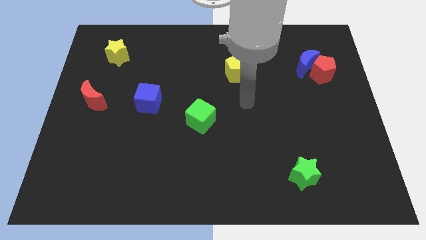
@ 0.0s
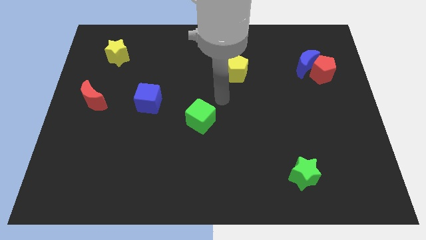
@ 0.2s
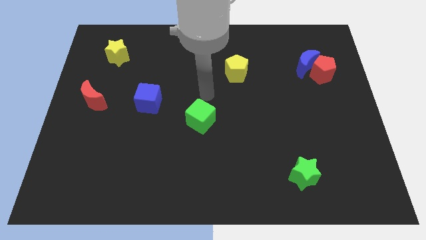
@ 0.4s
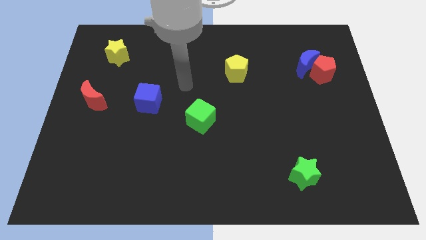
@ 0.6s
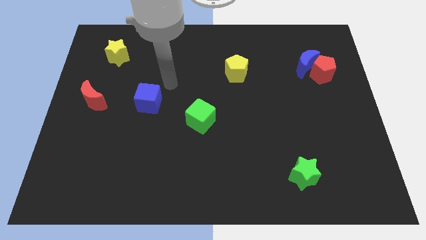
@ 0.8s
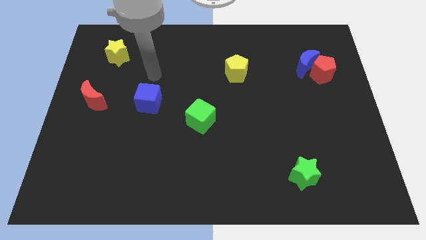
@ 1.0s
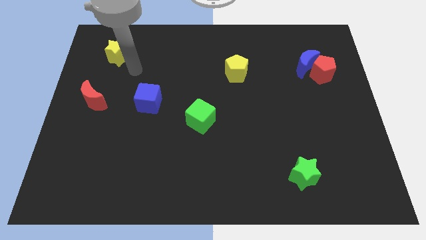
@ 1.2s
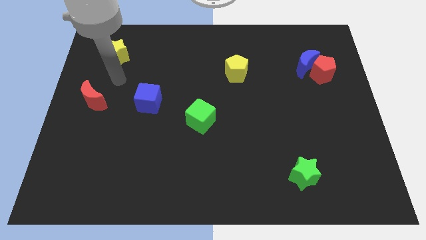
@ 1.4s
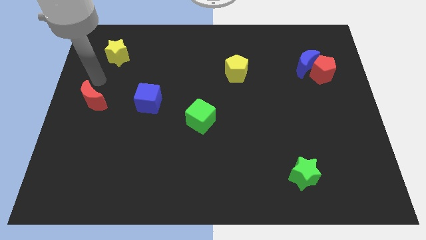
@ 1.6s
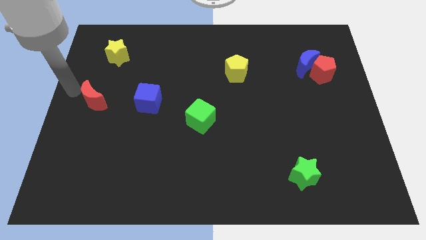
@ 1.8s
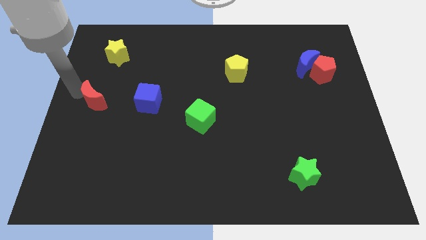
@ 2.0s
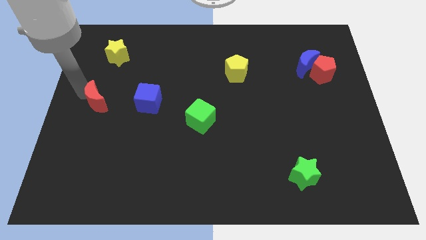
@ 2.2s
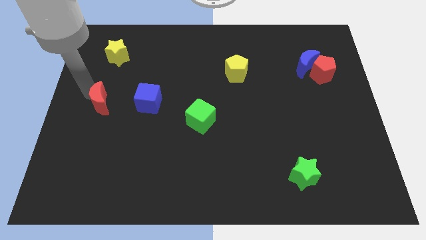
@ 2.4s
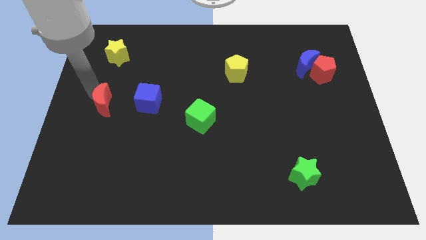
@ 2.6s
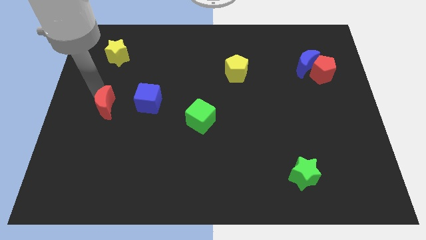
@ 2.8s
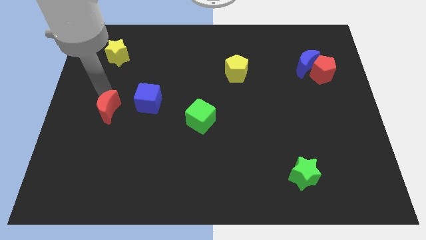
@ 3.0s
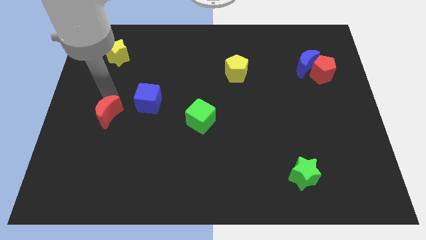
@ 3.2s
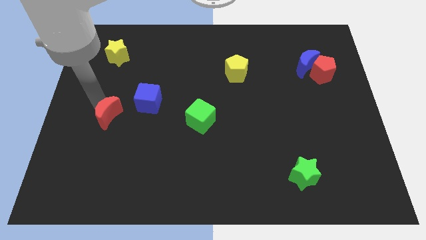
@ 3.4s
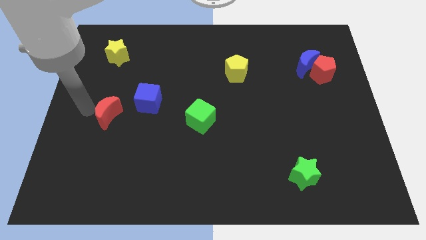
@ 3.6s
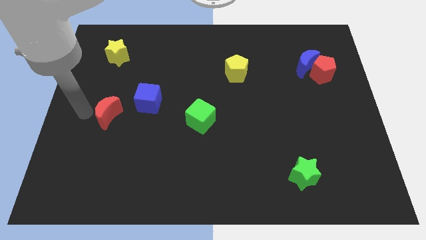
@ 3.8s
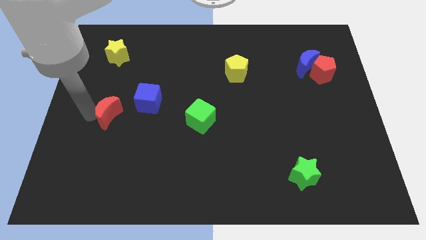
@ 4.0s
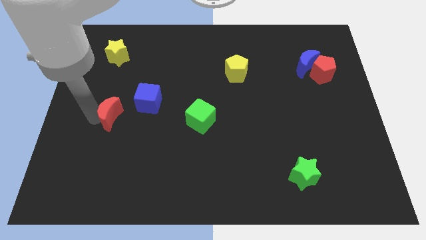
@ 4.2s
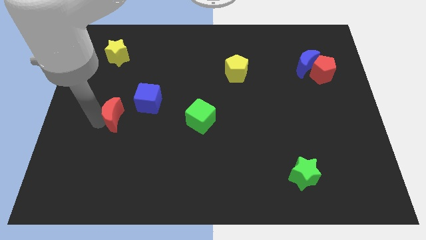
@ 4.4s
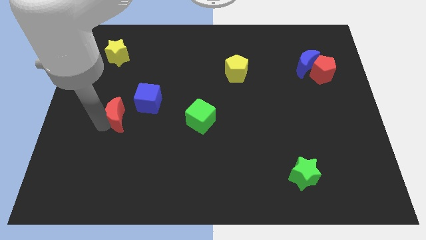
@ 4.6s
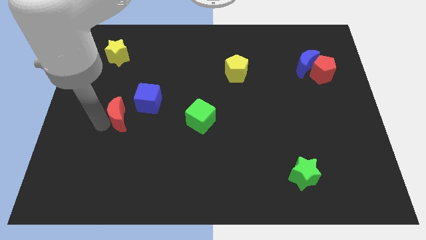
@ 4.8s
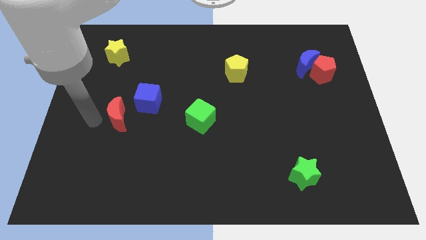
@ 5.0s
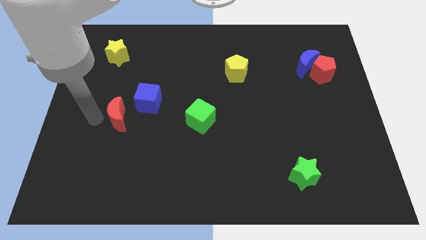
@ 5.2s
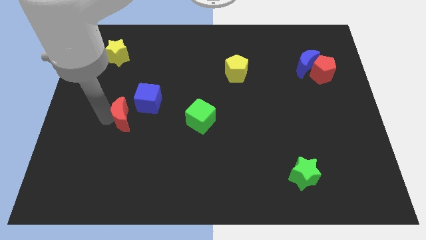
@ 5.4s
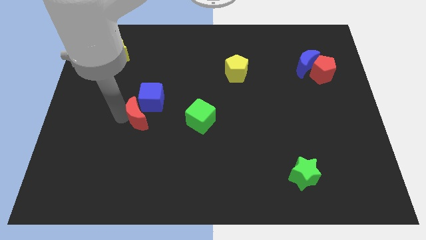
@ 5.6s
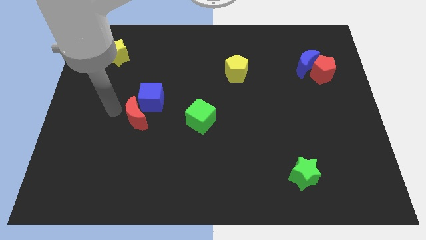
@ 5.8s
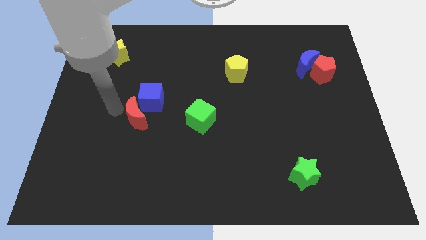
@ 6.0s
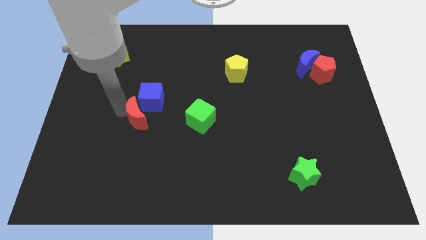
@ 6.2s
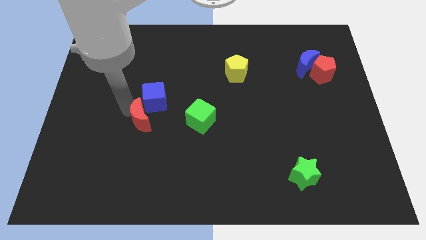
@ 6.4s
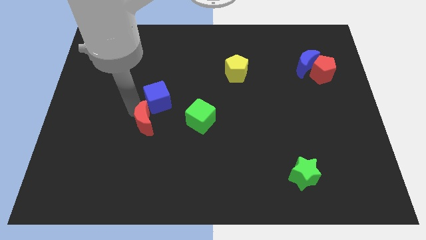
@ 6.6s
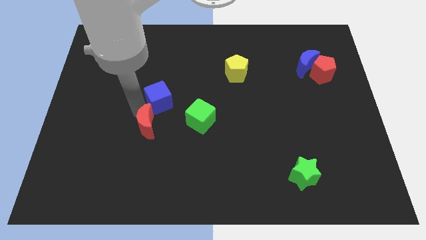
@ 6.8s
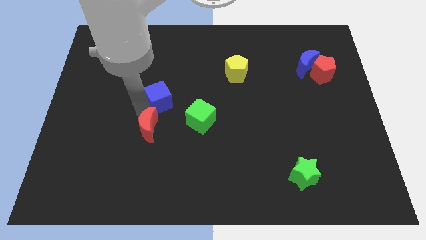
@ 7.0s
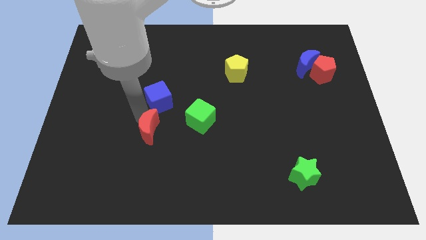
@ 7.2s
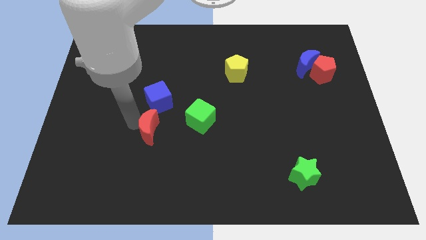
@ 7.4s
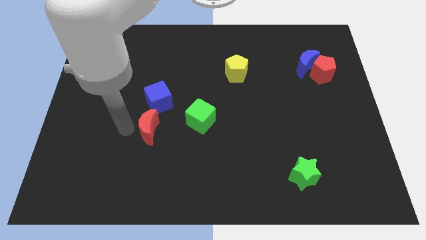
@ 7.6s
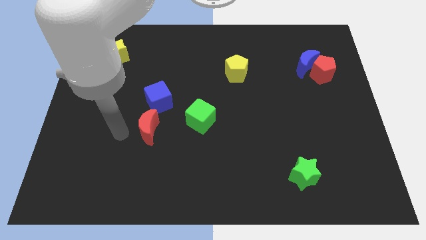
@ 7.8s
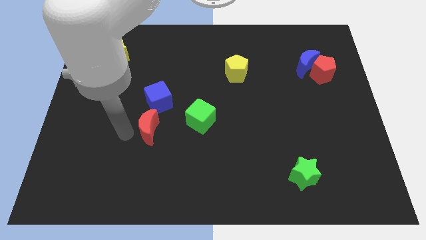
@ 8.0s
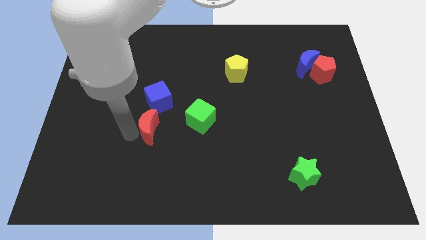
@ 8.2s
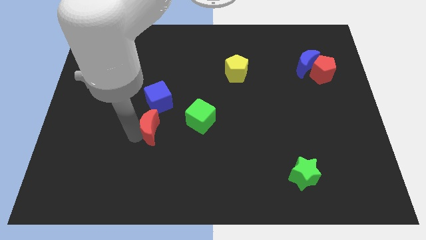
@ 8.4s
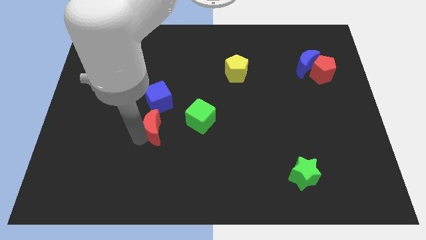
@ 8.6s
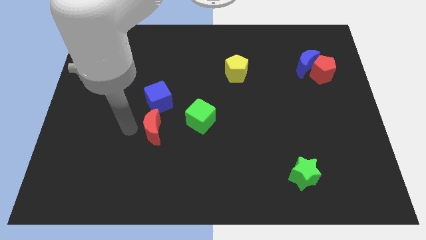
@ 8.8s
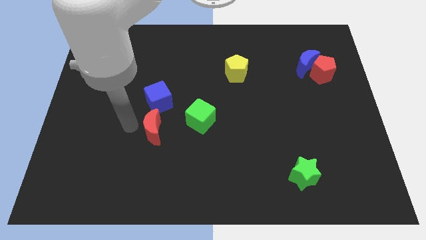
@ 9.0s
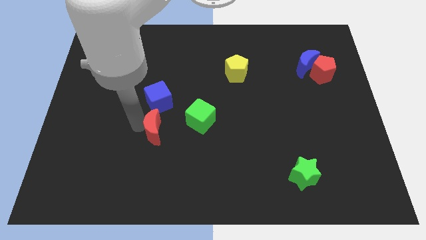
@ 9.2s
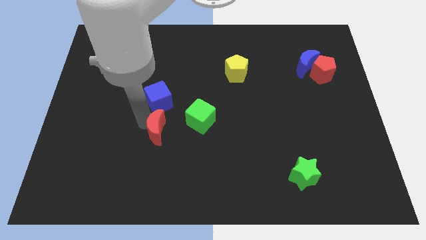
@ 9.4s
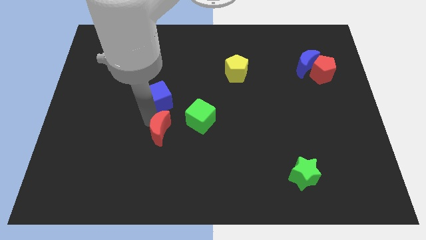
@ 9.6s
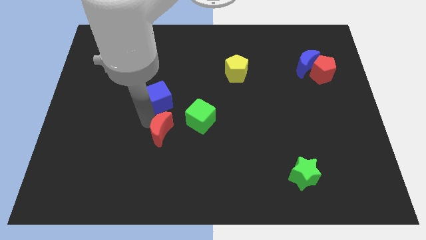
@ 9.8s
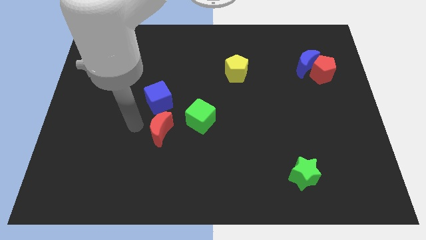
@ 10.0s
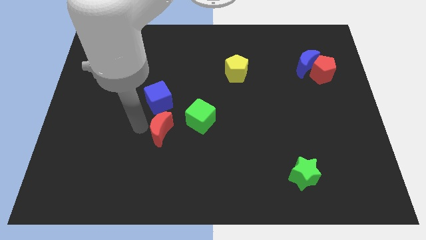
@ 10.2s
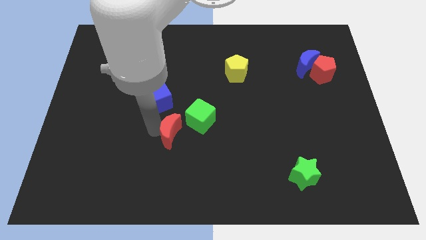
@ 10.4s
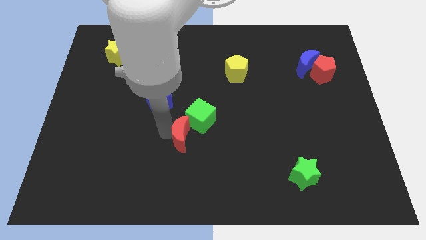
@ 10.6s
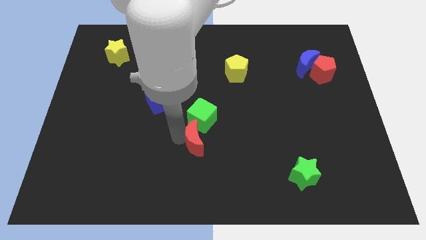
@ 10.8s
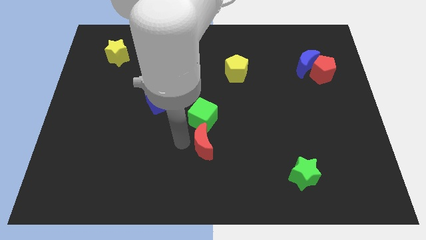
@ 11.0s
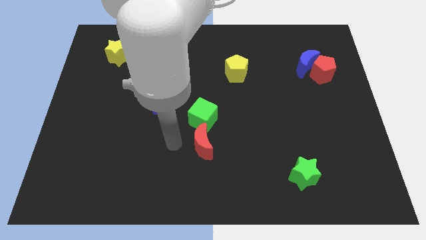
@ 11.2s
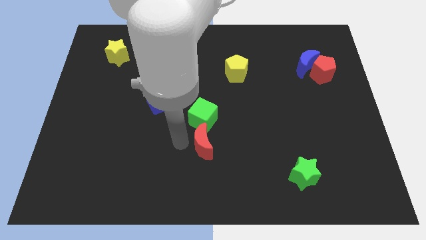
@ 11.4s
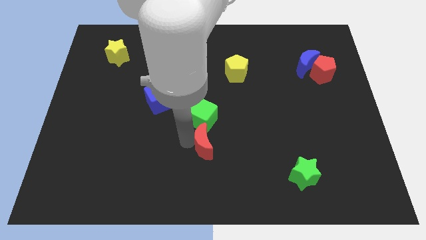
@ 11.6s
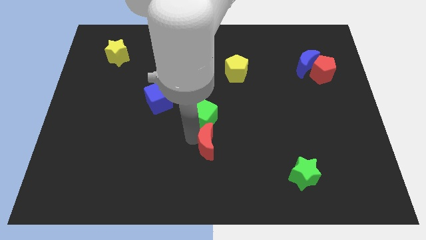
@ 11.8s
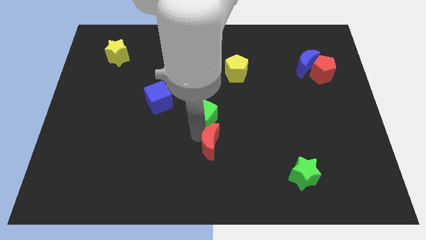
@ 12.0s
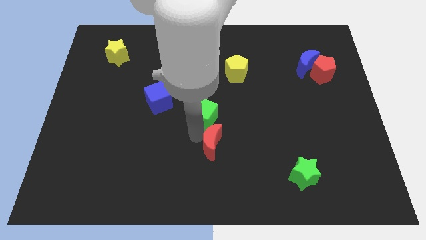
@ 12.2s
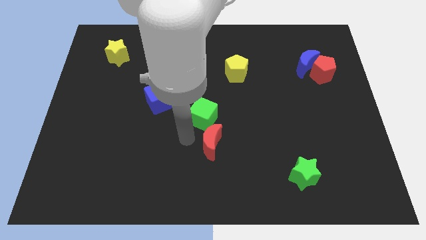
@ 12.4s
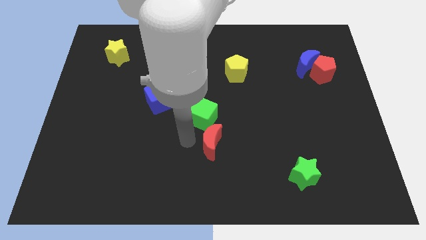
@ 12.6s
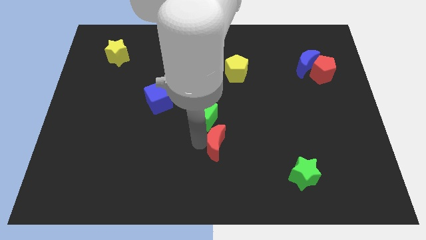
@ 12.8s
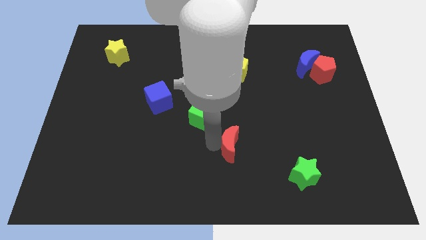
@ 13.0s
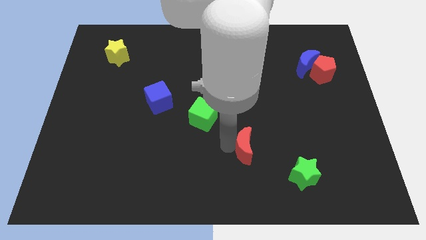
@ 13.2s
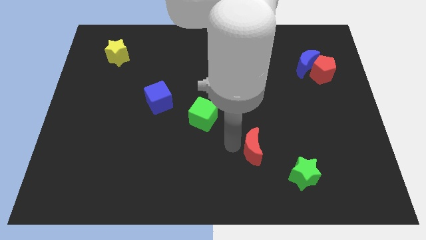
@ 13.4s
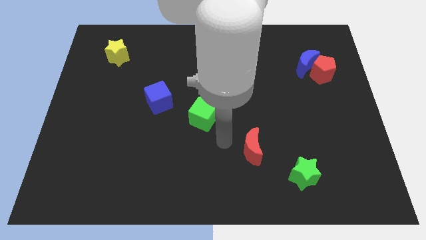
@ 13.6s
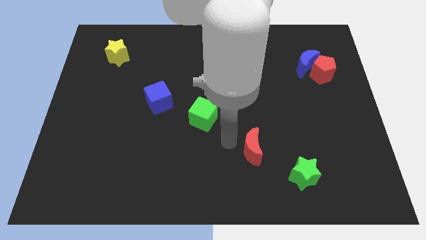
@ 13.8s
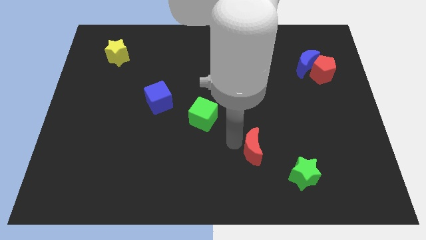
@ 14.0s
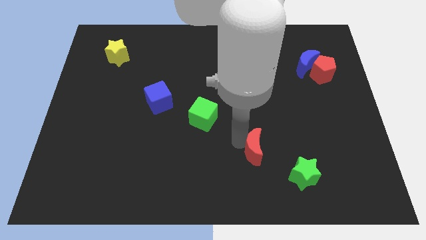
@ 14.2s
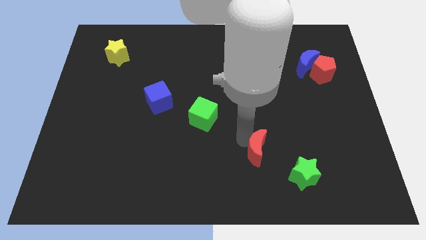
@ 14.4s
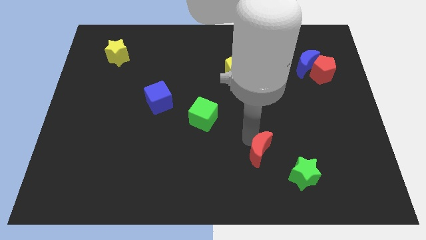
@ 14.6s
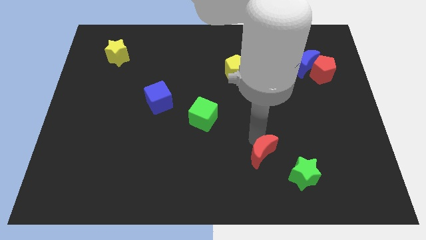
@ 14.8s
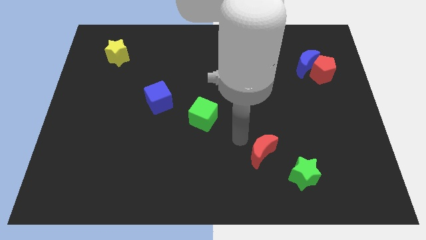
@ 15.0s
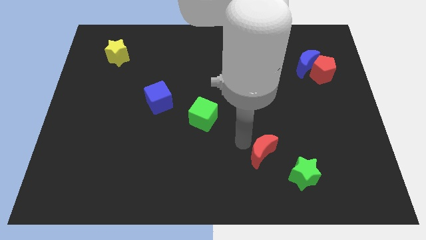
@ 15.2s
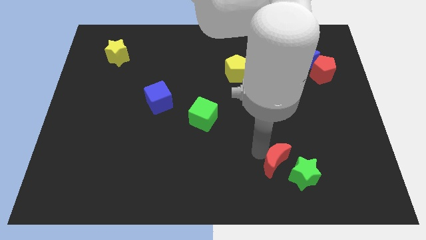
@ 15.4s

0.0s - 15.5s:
push the red moon to the green star
